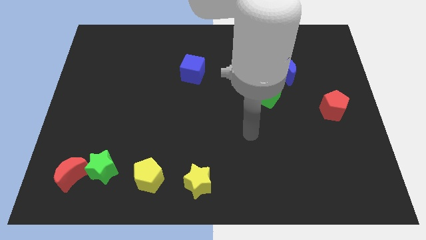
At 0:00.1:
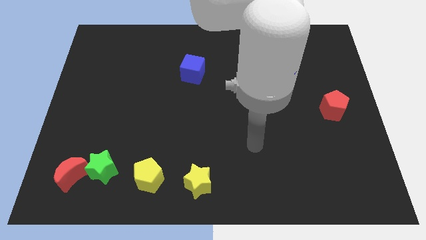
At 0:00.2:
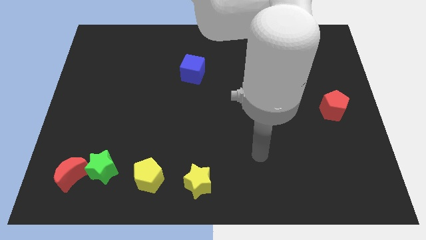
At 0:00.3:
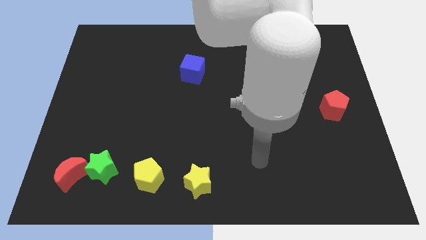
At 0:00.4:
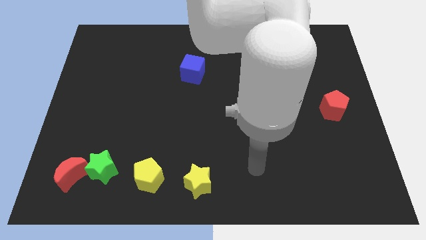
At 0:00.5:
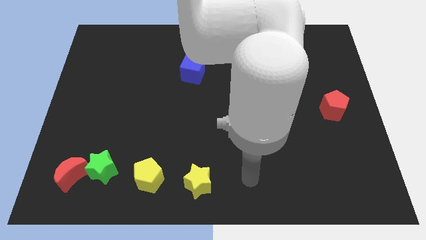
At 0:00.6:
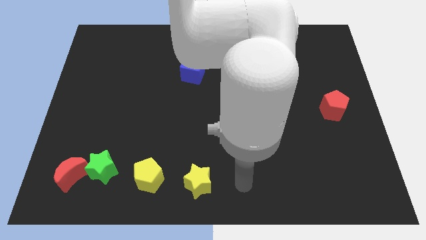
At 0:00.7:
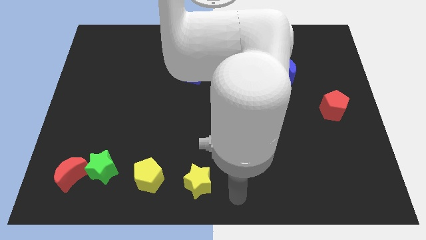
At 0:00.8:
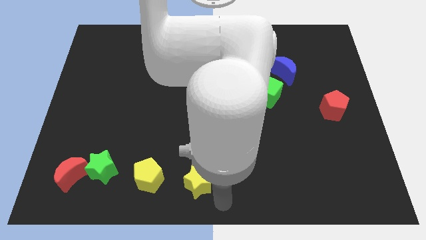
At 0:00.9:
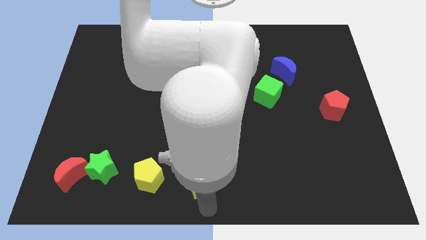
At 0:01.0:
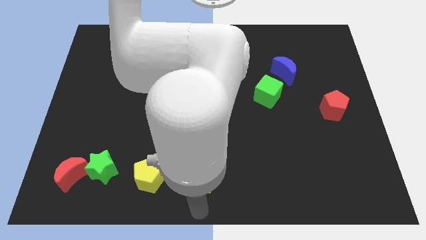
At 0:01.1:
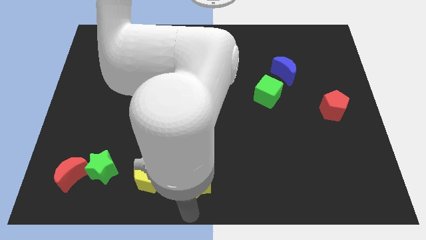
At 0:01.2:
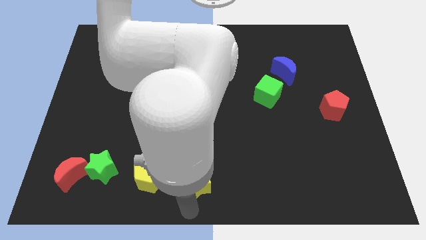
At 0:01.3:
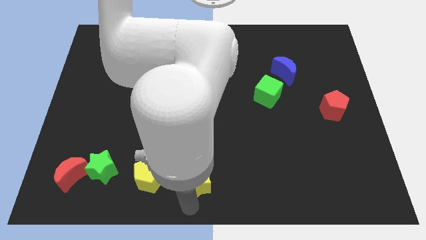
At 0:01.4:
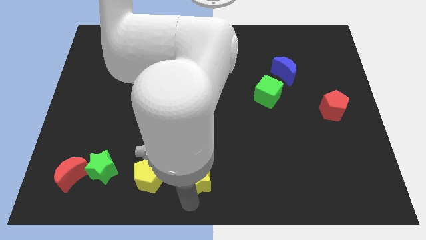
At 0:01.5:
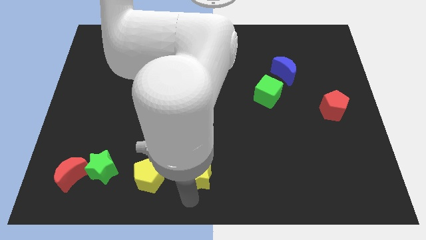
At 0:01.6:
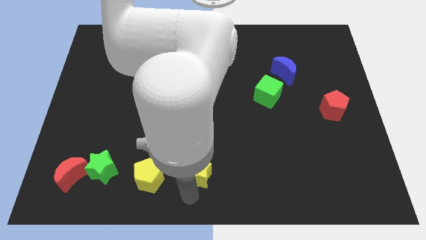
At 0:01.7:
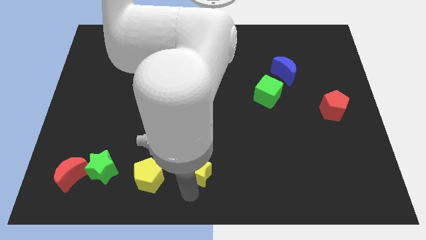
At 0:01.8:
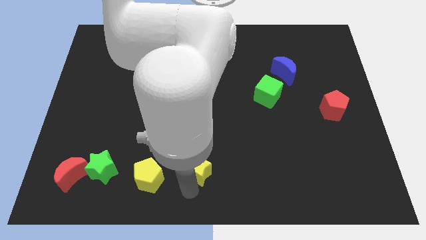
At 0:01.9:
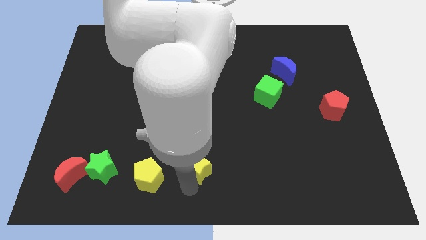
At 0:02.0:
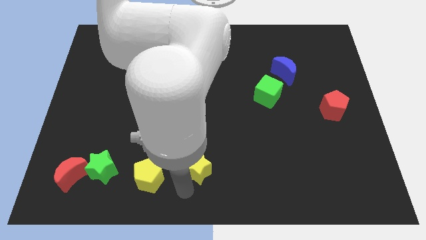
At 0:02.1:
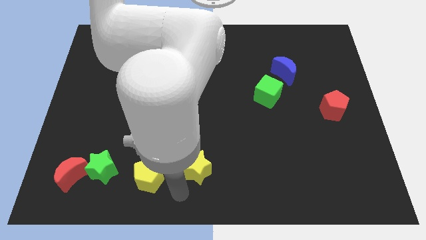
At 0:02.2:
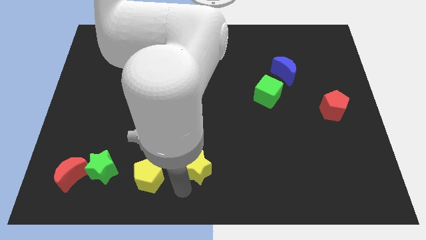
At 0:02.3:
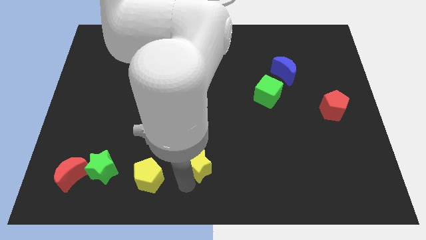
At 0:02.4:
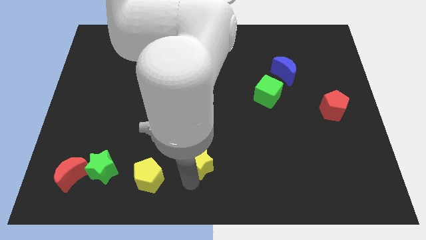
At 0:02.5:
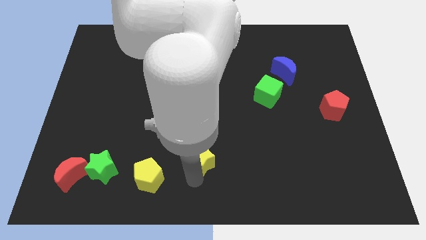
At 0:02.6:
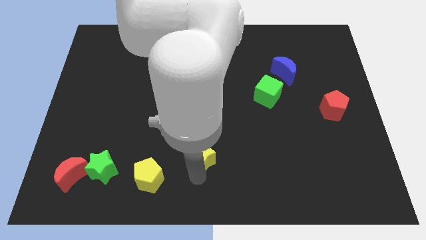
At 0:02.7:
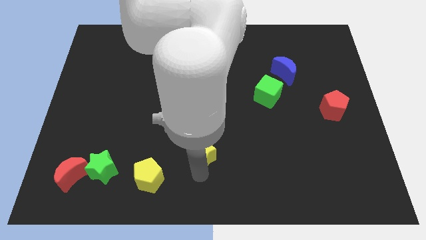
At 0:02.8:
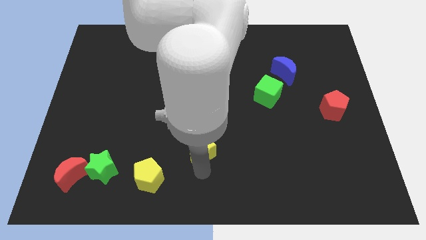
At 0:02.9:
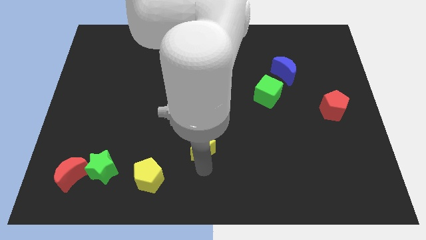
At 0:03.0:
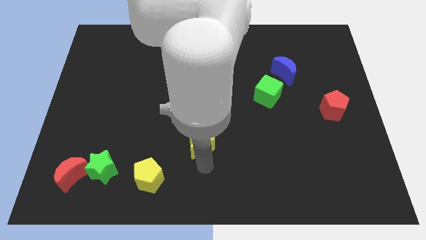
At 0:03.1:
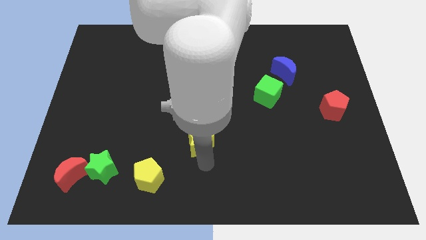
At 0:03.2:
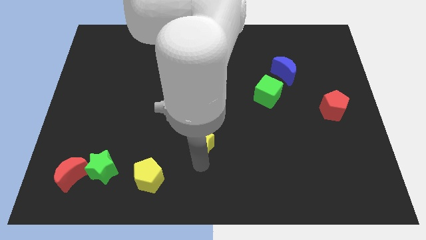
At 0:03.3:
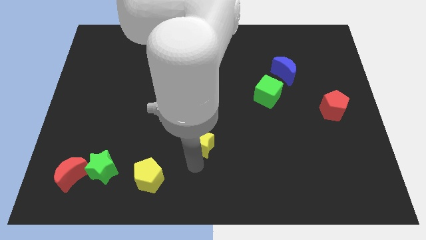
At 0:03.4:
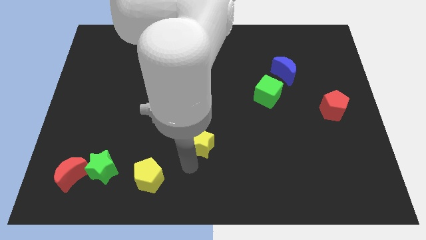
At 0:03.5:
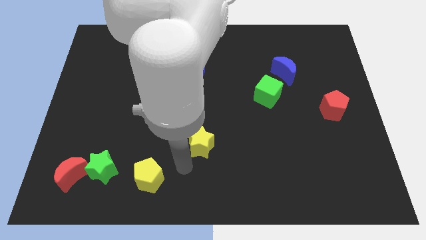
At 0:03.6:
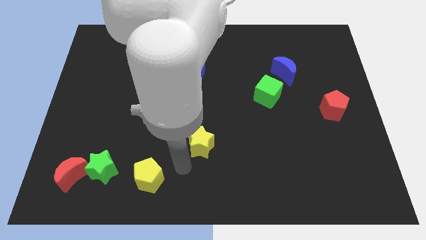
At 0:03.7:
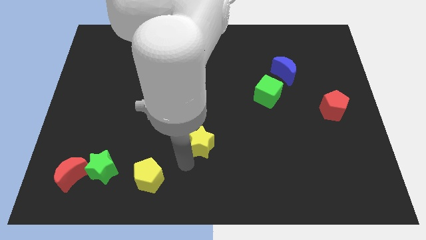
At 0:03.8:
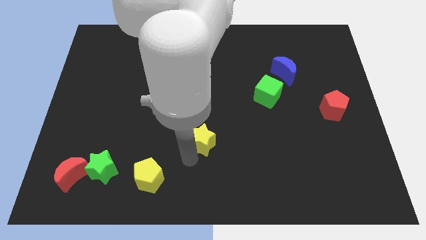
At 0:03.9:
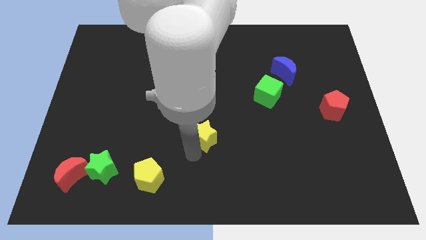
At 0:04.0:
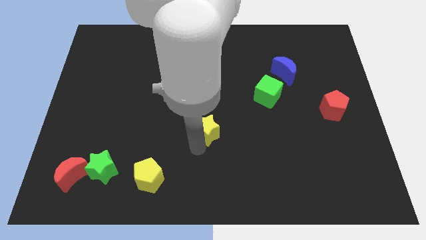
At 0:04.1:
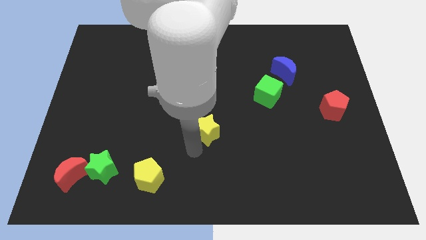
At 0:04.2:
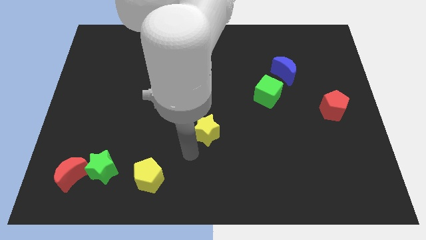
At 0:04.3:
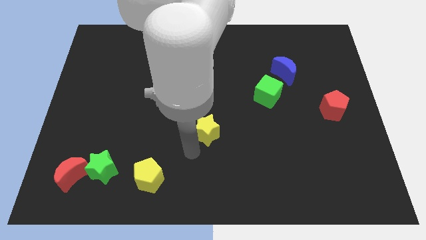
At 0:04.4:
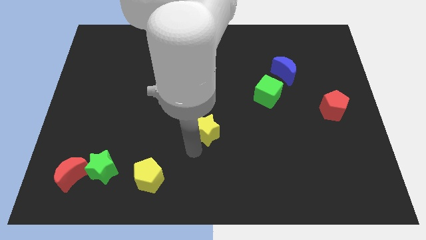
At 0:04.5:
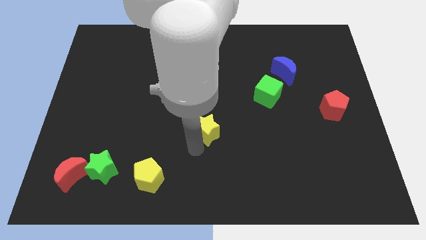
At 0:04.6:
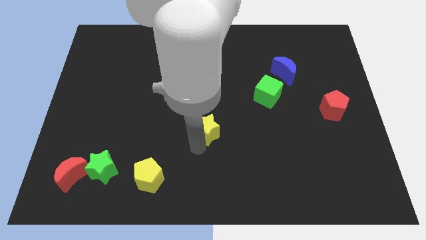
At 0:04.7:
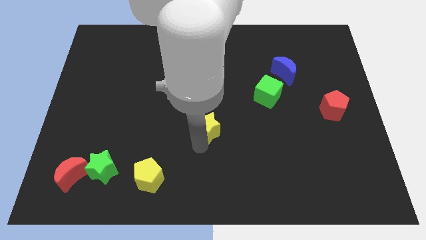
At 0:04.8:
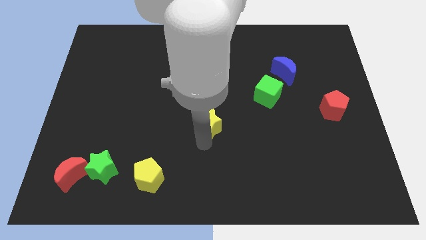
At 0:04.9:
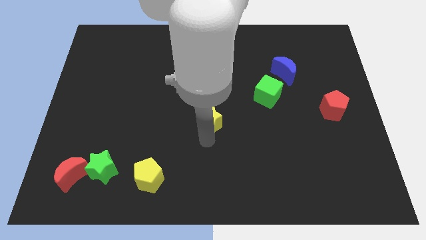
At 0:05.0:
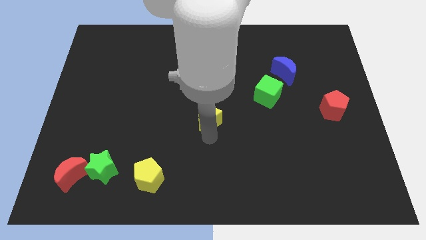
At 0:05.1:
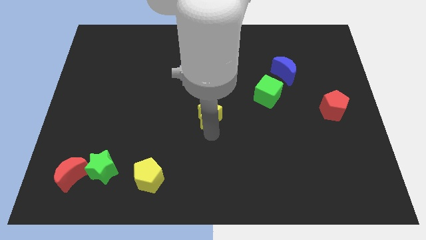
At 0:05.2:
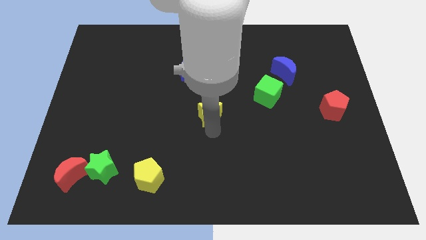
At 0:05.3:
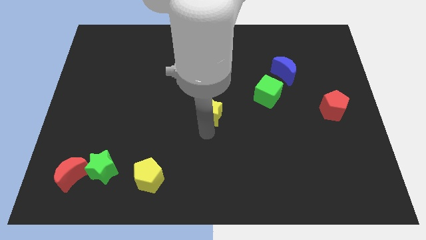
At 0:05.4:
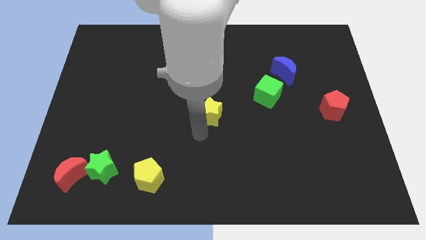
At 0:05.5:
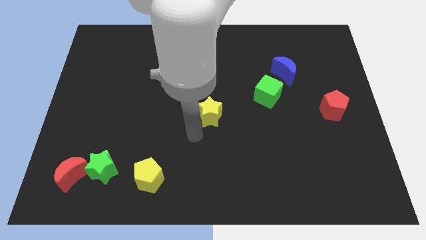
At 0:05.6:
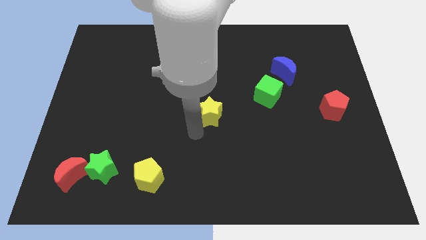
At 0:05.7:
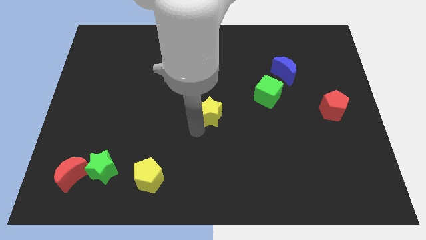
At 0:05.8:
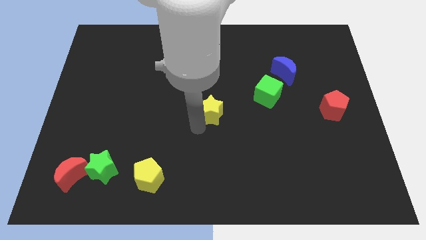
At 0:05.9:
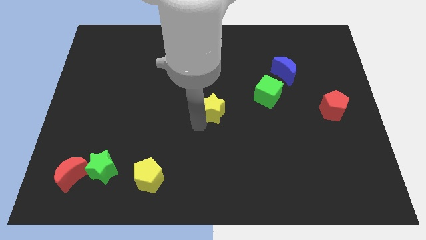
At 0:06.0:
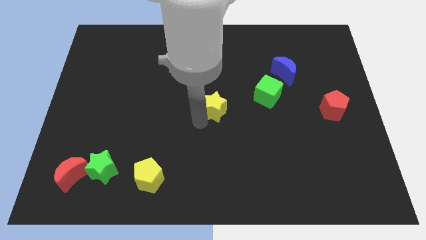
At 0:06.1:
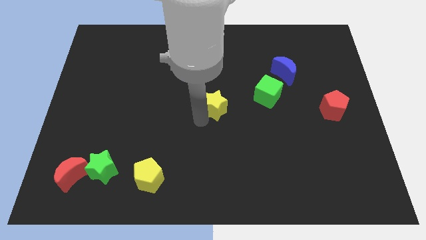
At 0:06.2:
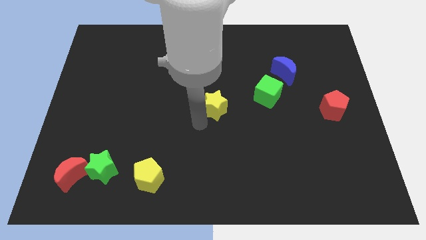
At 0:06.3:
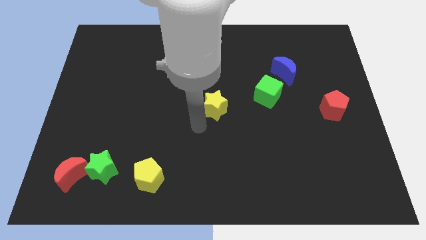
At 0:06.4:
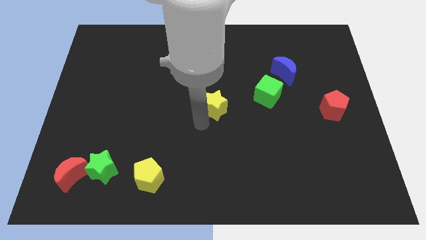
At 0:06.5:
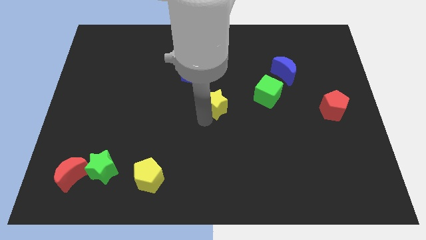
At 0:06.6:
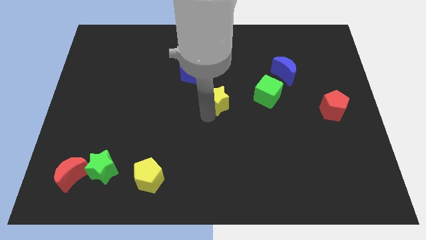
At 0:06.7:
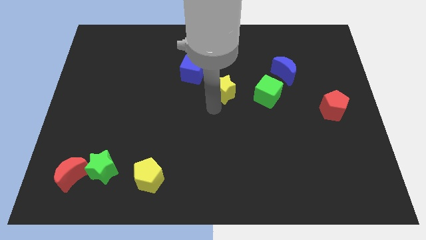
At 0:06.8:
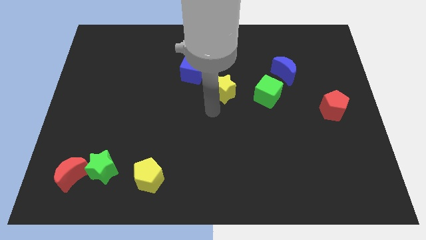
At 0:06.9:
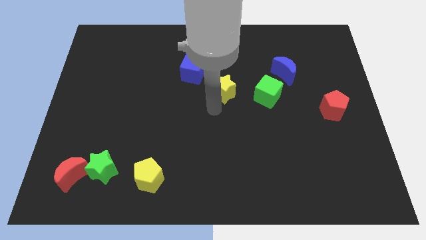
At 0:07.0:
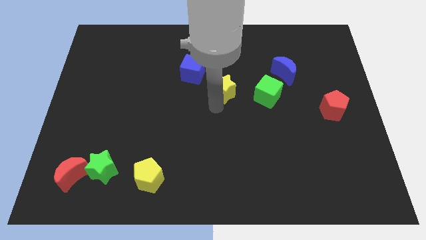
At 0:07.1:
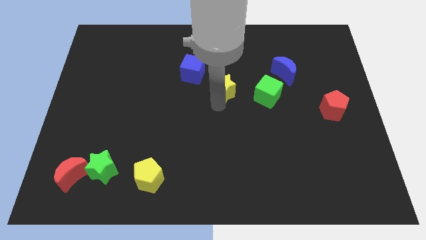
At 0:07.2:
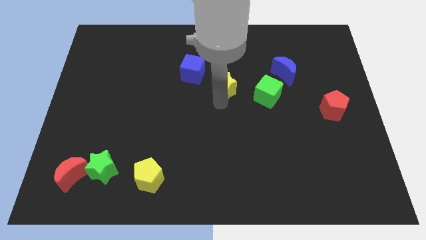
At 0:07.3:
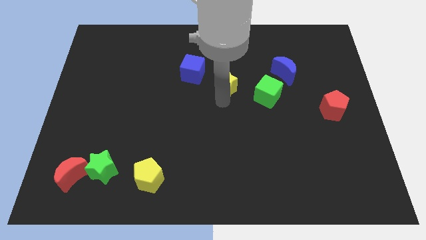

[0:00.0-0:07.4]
move the yellow star just right of the blue cube
